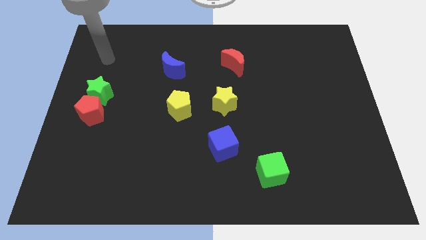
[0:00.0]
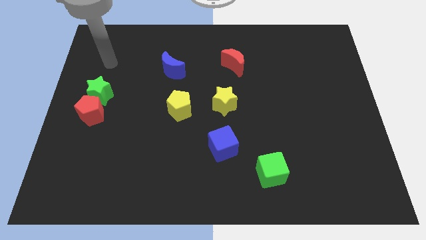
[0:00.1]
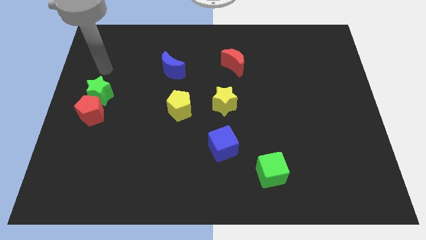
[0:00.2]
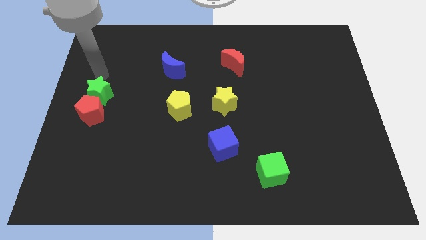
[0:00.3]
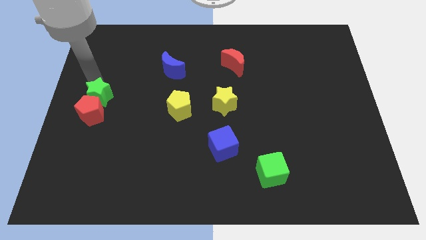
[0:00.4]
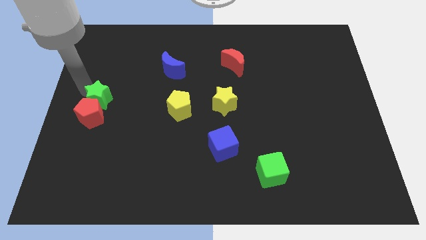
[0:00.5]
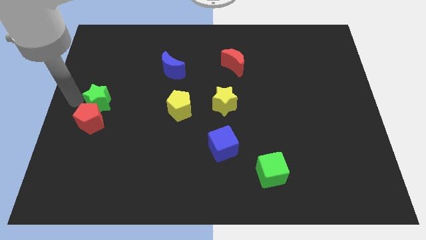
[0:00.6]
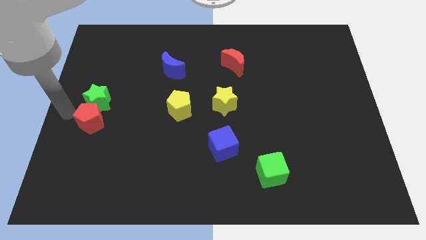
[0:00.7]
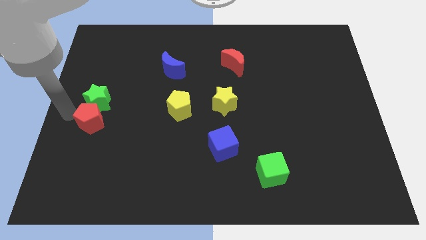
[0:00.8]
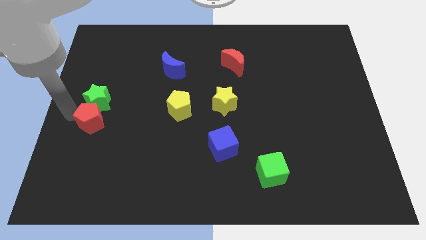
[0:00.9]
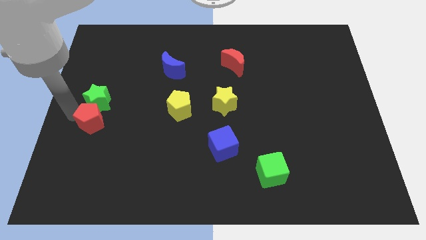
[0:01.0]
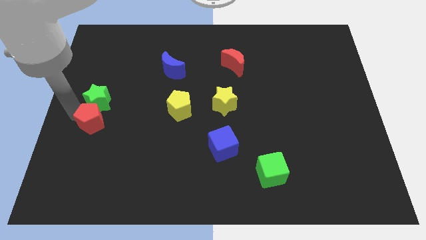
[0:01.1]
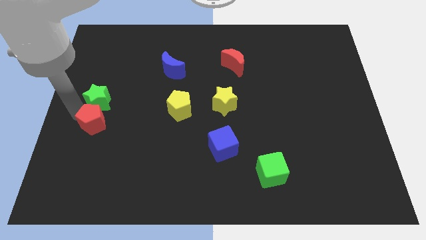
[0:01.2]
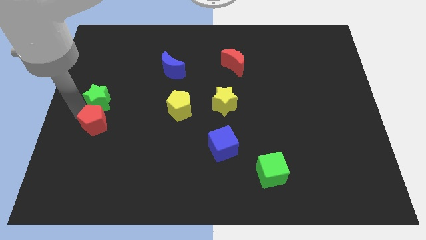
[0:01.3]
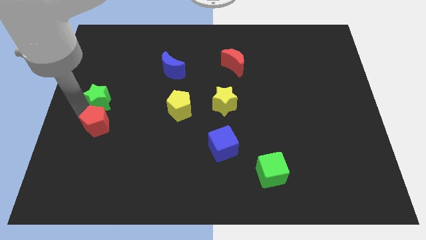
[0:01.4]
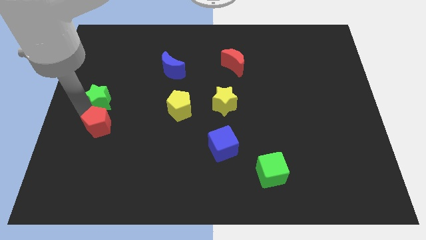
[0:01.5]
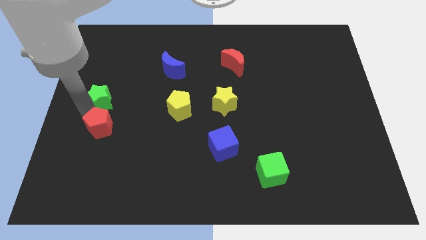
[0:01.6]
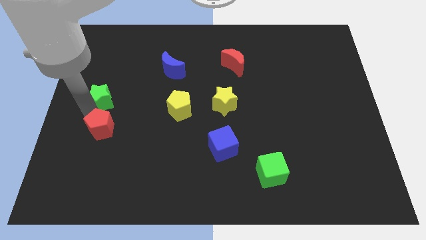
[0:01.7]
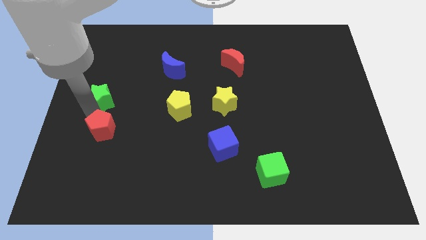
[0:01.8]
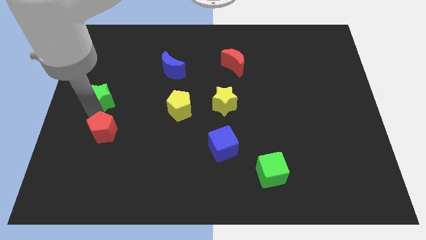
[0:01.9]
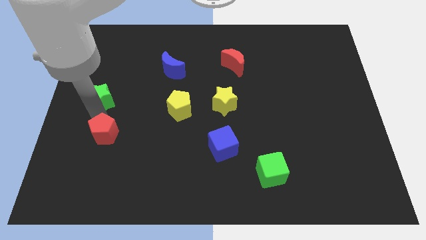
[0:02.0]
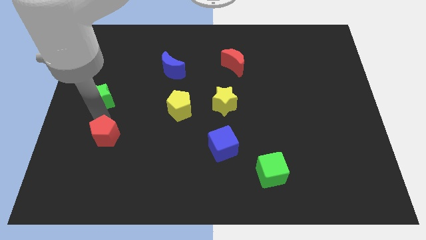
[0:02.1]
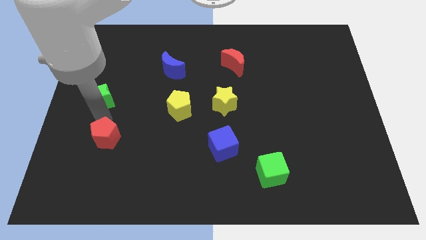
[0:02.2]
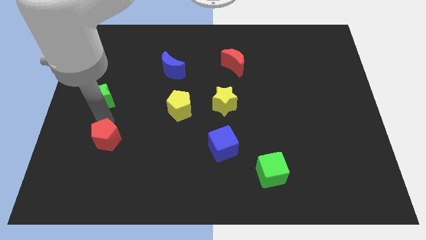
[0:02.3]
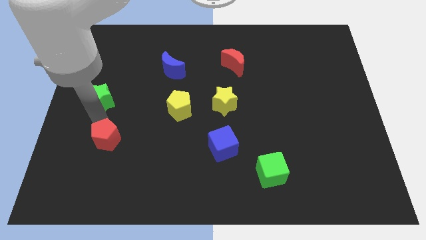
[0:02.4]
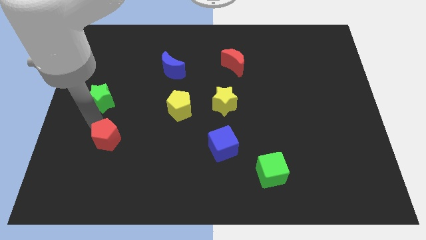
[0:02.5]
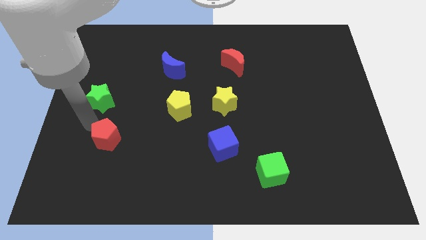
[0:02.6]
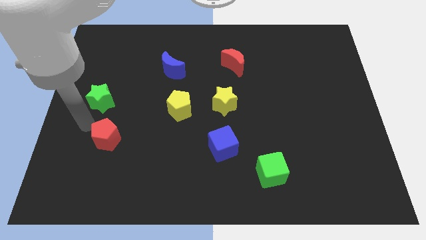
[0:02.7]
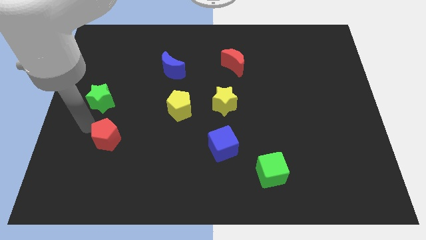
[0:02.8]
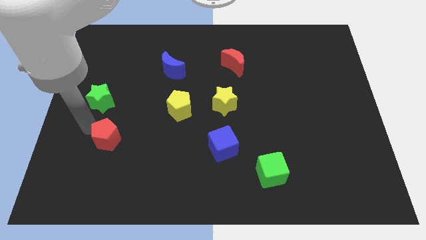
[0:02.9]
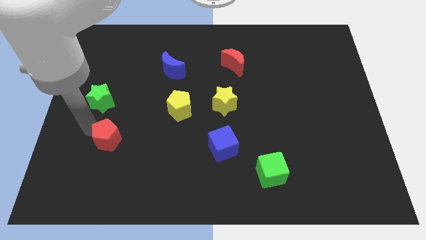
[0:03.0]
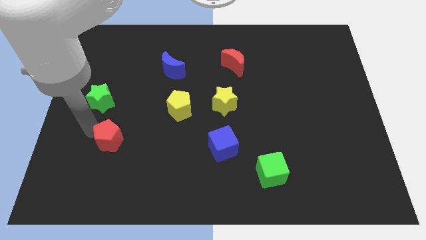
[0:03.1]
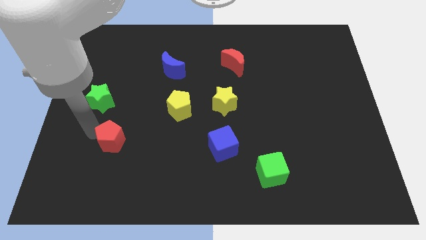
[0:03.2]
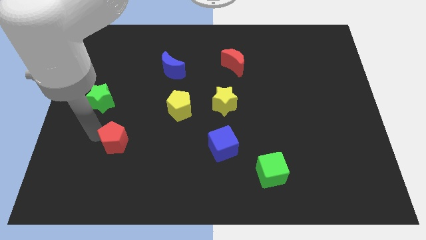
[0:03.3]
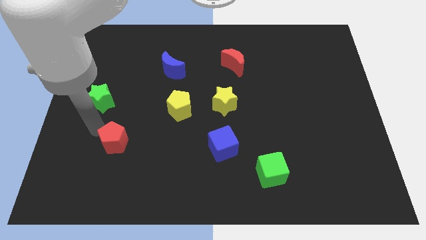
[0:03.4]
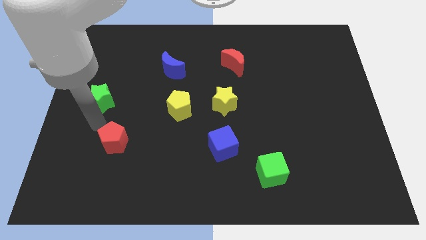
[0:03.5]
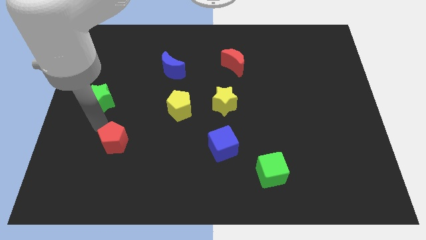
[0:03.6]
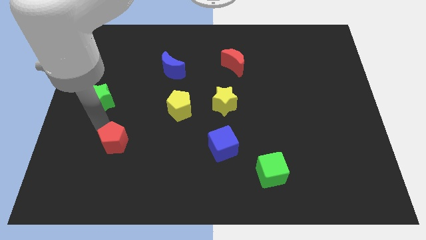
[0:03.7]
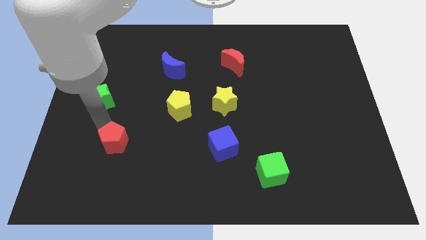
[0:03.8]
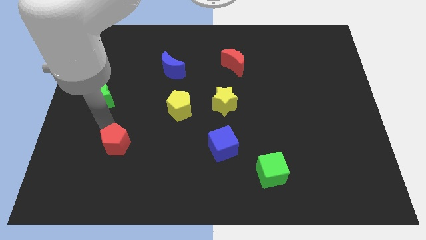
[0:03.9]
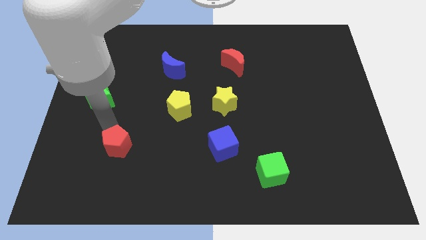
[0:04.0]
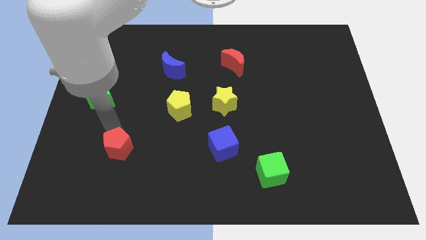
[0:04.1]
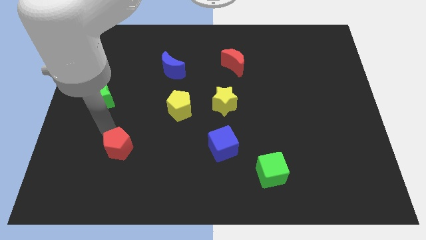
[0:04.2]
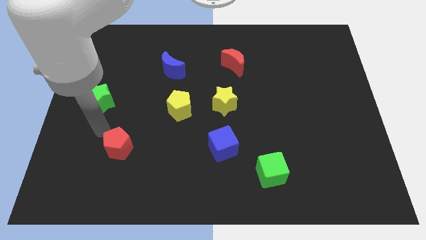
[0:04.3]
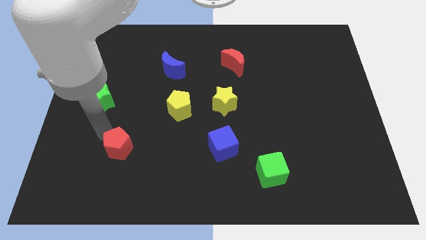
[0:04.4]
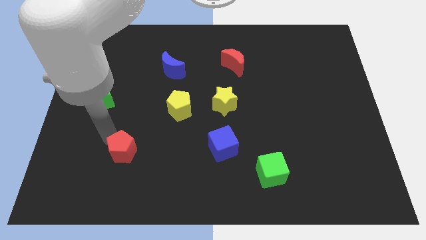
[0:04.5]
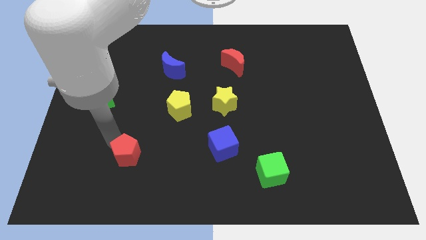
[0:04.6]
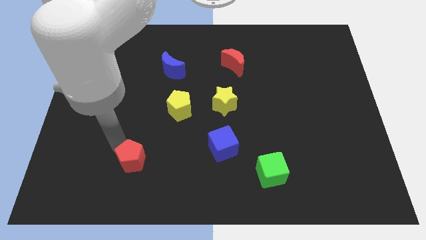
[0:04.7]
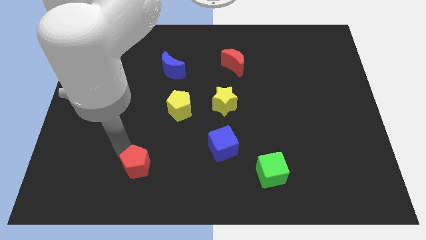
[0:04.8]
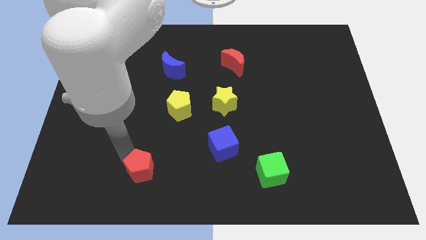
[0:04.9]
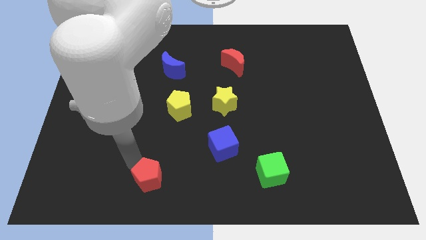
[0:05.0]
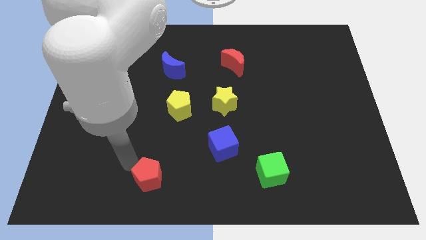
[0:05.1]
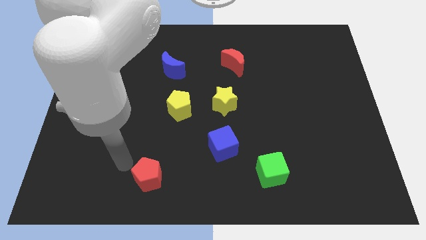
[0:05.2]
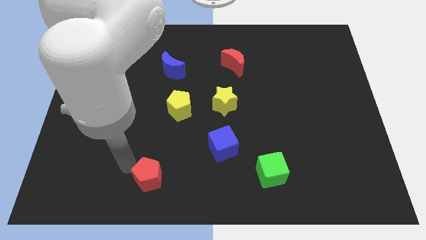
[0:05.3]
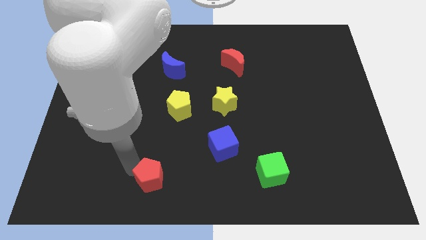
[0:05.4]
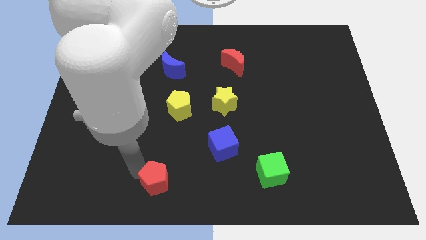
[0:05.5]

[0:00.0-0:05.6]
push the red pentagon to the bottom

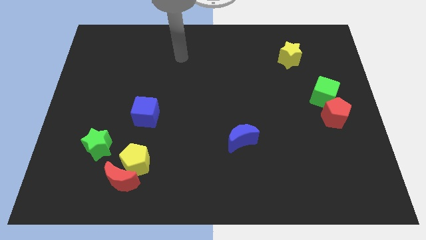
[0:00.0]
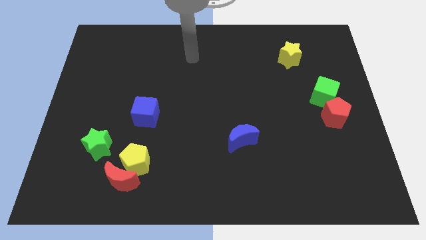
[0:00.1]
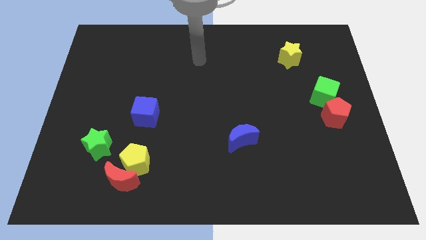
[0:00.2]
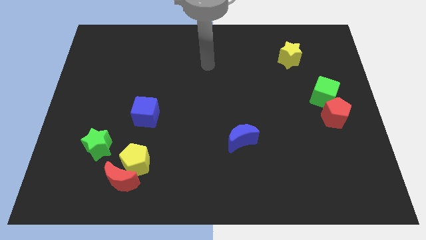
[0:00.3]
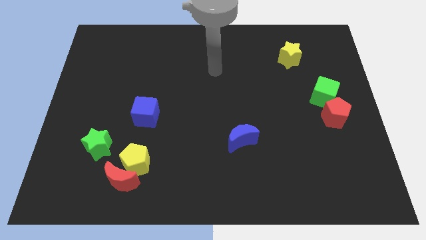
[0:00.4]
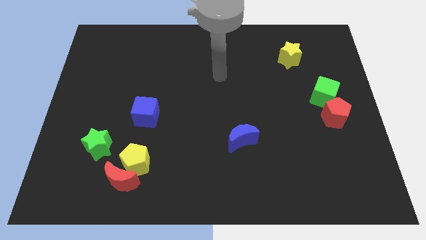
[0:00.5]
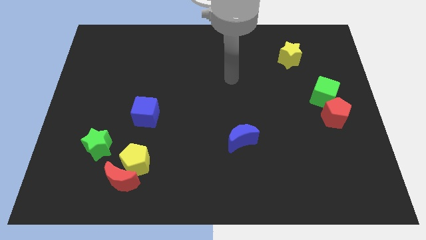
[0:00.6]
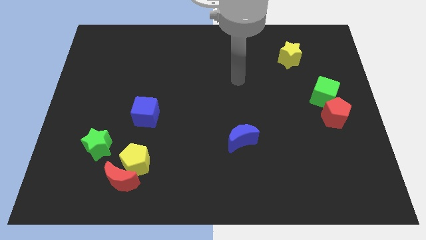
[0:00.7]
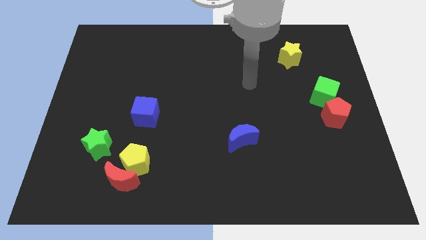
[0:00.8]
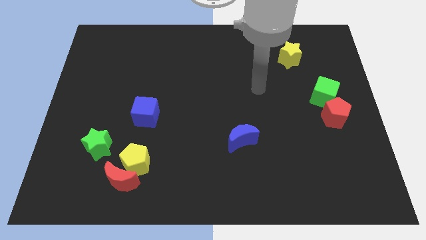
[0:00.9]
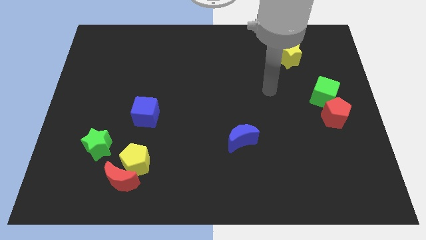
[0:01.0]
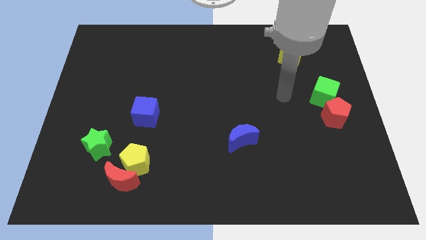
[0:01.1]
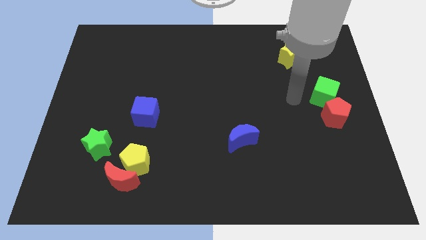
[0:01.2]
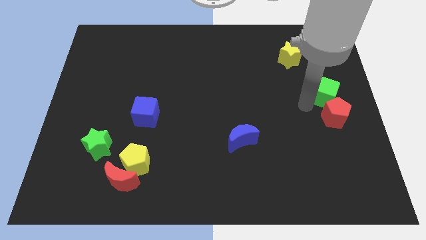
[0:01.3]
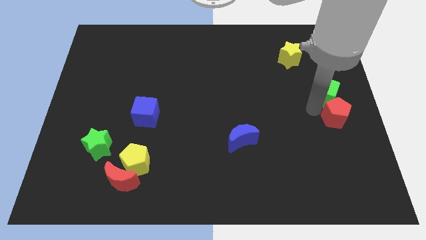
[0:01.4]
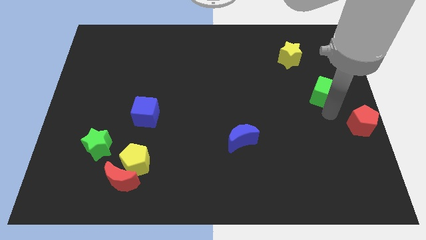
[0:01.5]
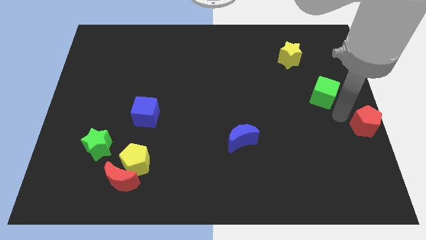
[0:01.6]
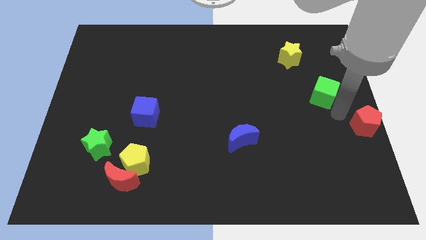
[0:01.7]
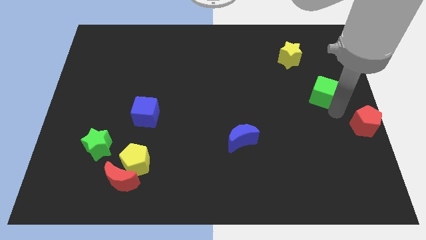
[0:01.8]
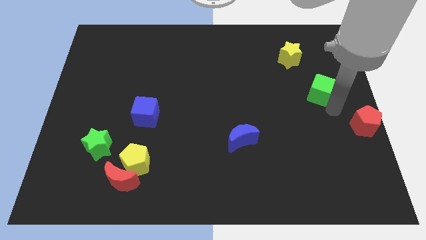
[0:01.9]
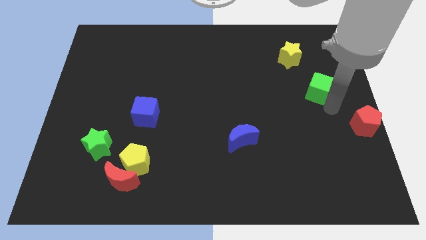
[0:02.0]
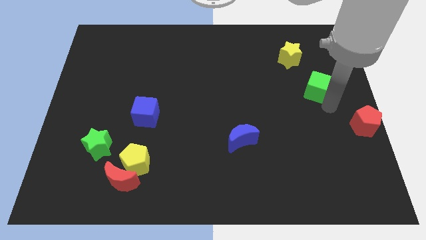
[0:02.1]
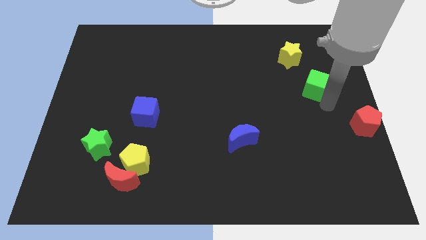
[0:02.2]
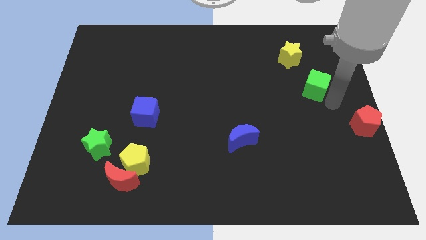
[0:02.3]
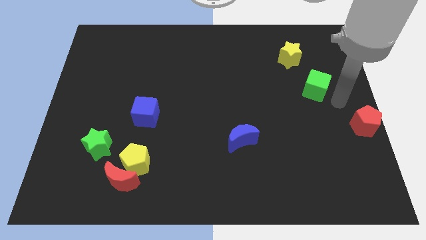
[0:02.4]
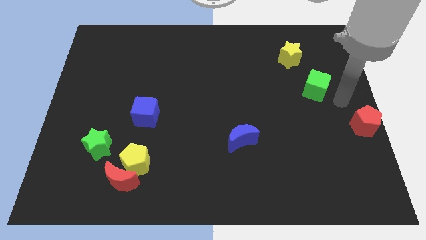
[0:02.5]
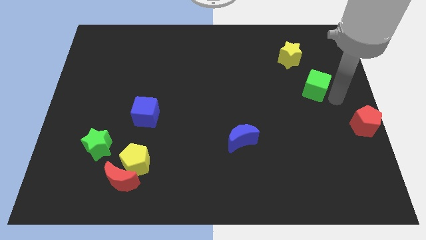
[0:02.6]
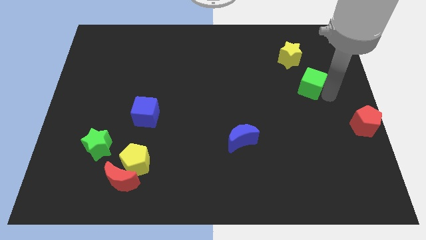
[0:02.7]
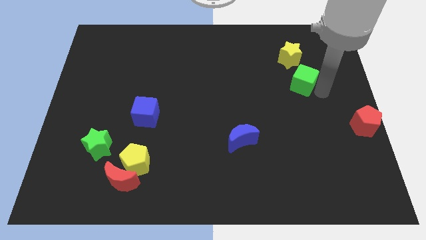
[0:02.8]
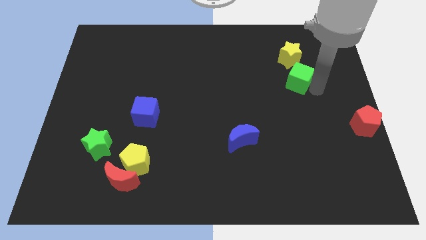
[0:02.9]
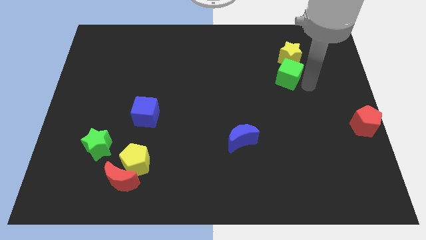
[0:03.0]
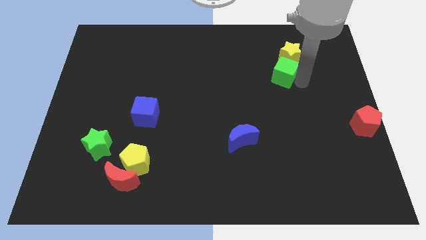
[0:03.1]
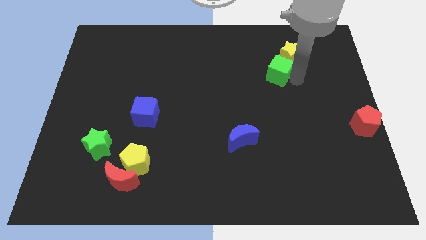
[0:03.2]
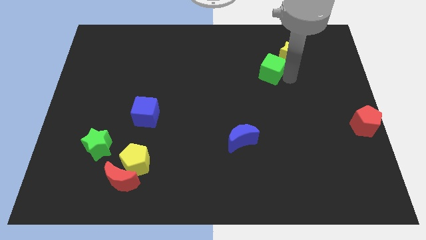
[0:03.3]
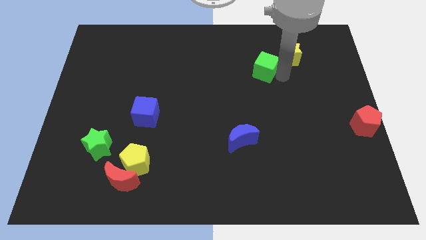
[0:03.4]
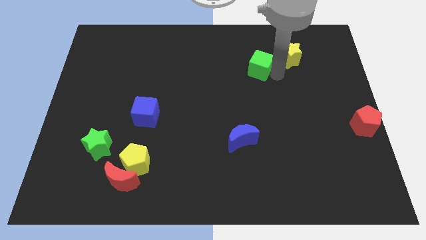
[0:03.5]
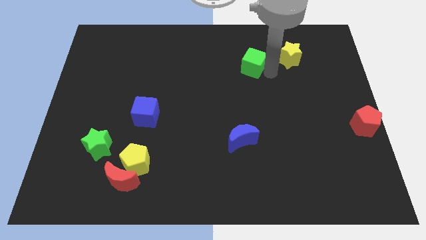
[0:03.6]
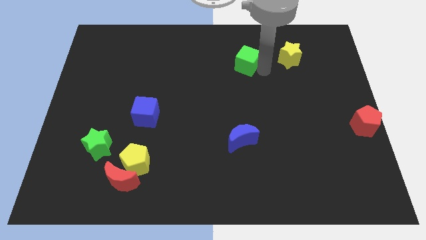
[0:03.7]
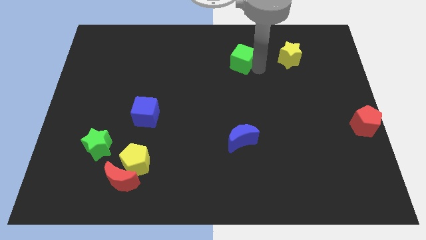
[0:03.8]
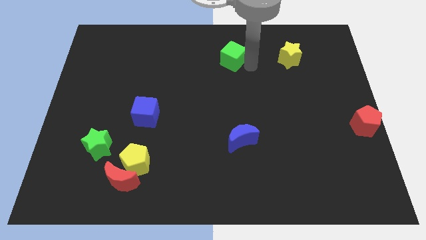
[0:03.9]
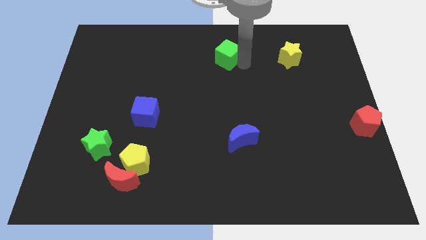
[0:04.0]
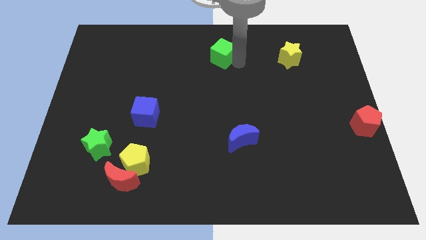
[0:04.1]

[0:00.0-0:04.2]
push the green cube to the top side
